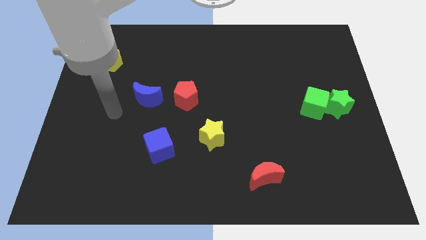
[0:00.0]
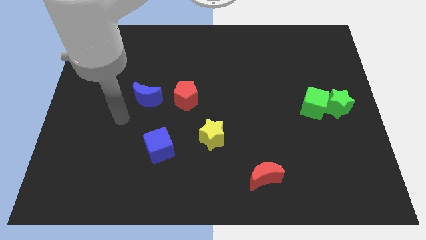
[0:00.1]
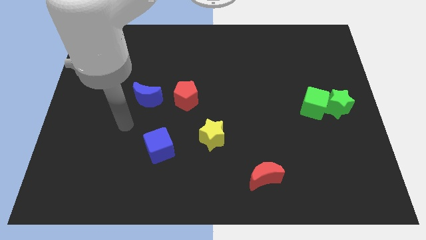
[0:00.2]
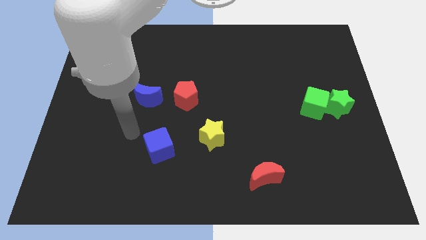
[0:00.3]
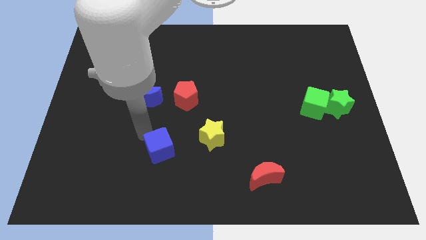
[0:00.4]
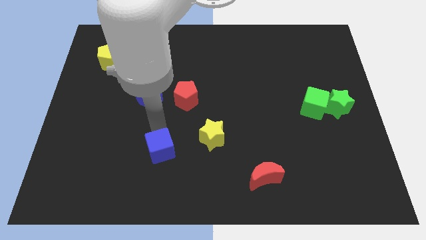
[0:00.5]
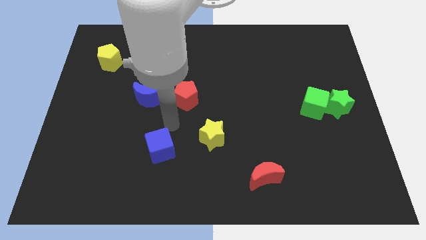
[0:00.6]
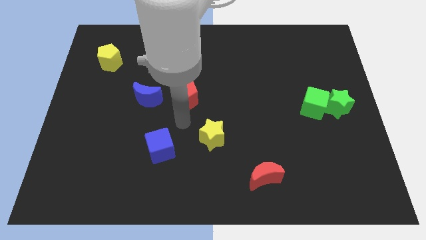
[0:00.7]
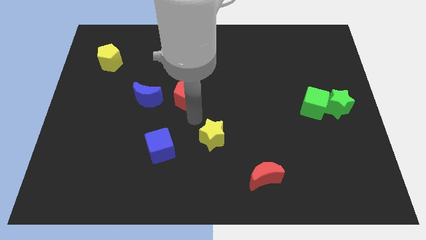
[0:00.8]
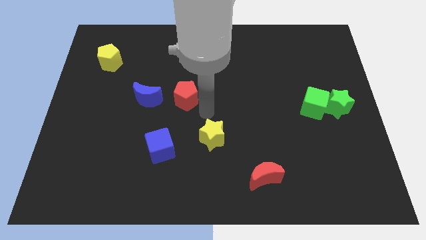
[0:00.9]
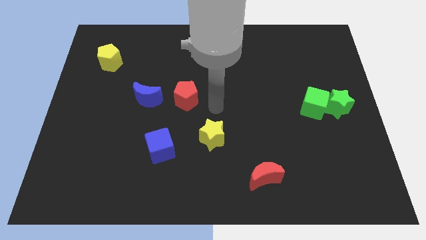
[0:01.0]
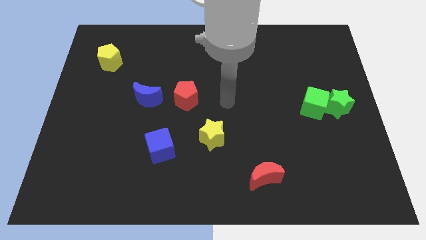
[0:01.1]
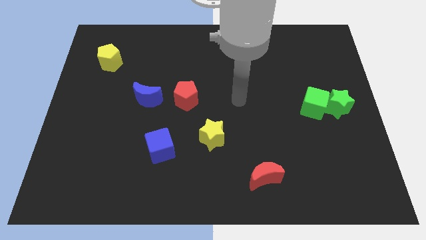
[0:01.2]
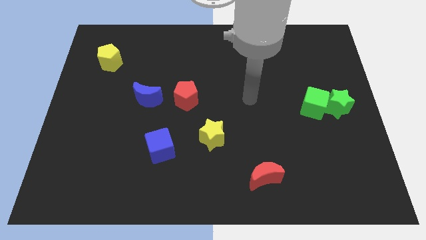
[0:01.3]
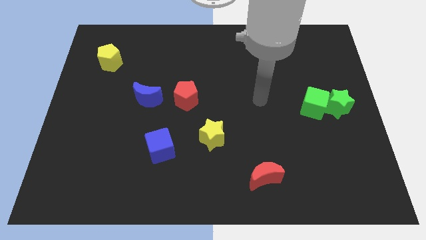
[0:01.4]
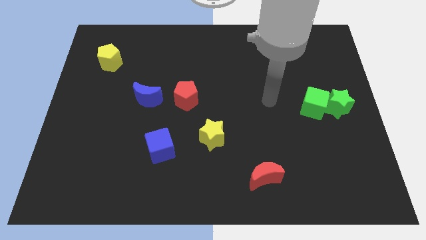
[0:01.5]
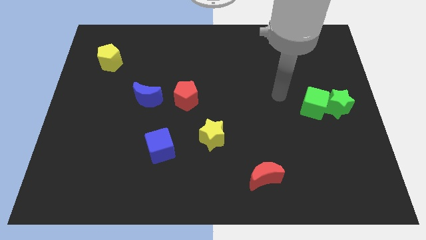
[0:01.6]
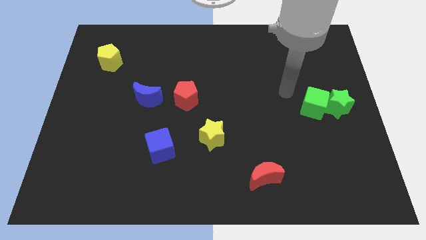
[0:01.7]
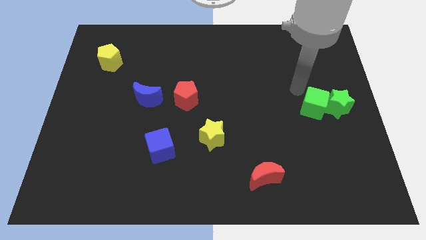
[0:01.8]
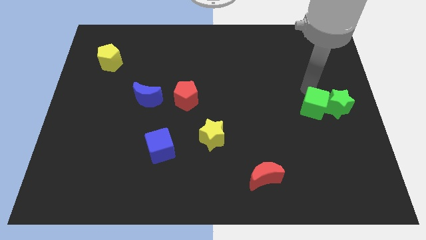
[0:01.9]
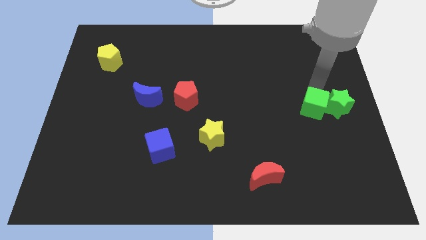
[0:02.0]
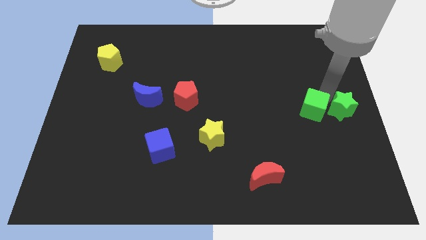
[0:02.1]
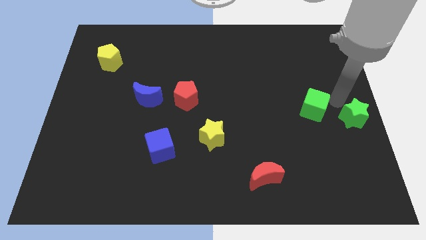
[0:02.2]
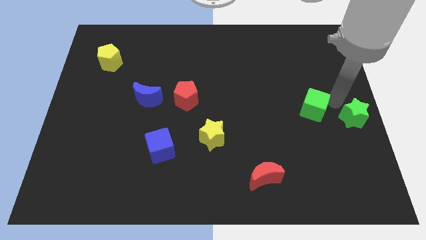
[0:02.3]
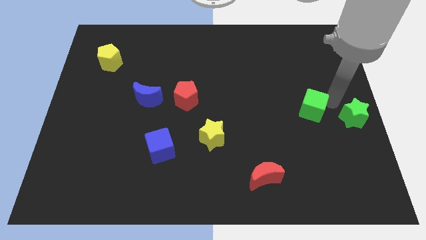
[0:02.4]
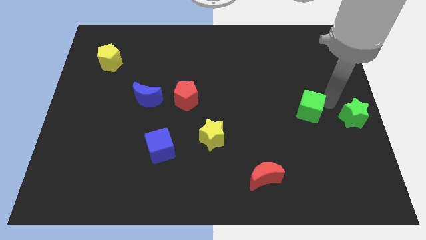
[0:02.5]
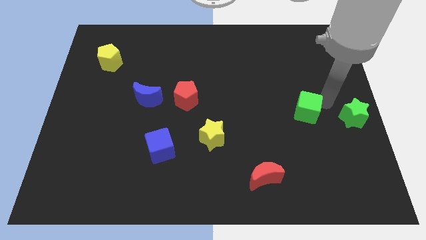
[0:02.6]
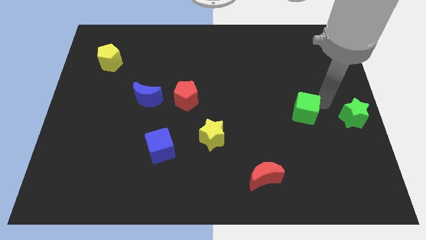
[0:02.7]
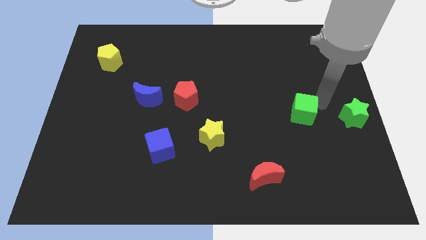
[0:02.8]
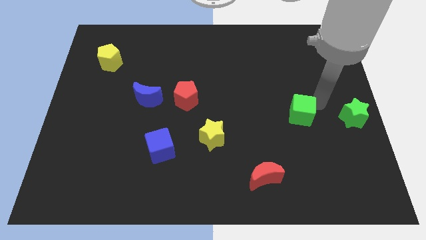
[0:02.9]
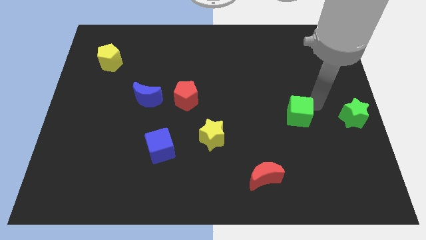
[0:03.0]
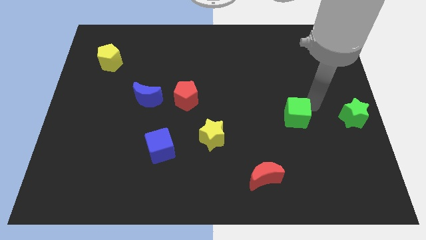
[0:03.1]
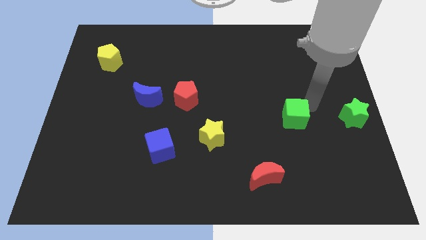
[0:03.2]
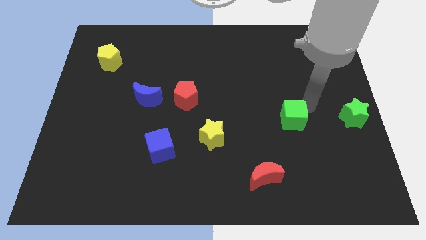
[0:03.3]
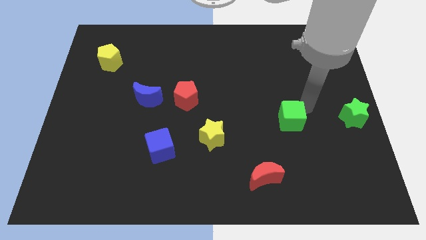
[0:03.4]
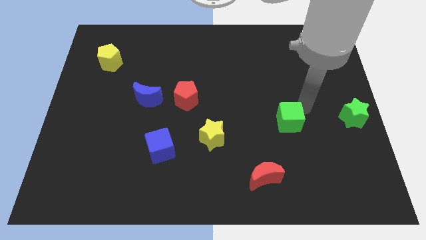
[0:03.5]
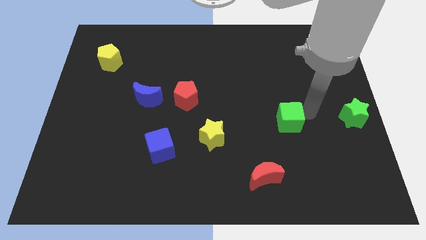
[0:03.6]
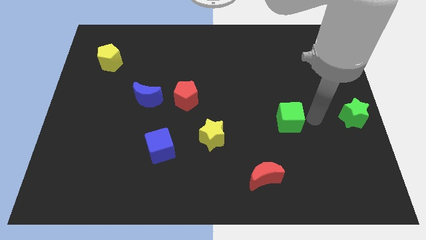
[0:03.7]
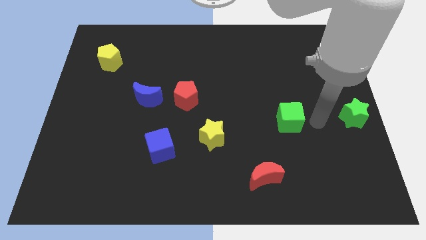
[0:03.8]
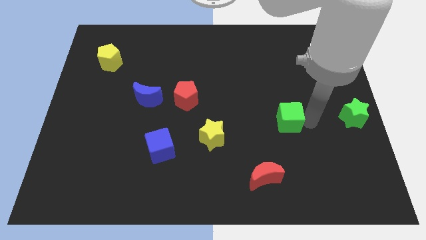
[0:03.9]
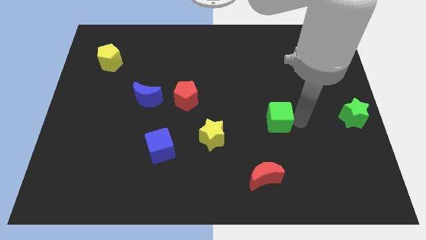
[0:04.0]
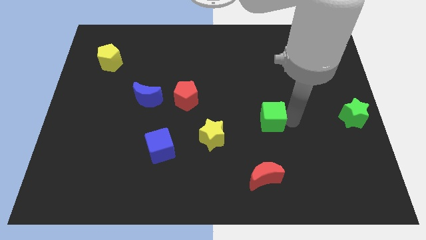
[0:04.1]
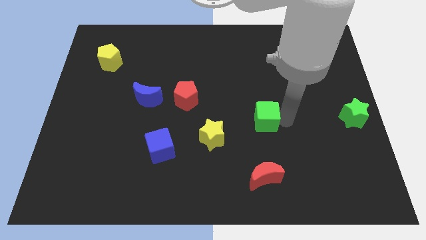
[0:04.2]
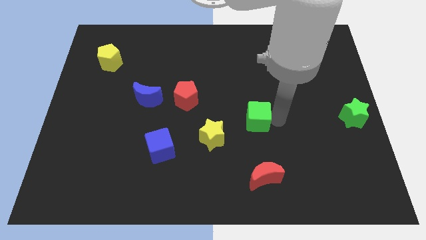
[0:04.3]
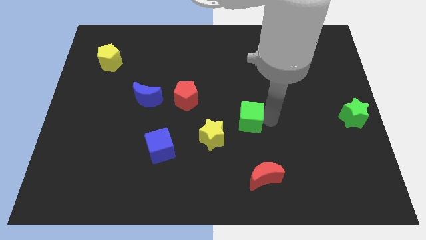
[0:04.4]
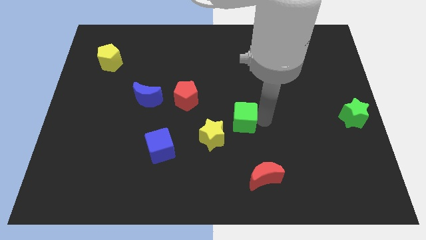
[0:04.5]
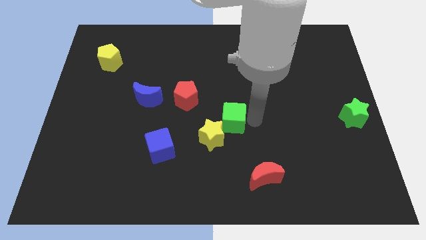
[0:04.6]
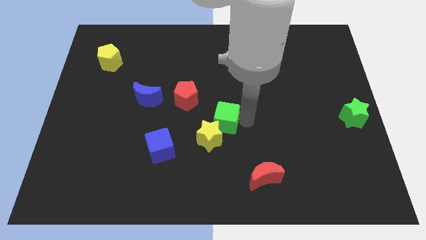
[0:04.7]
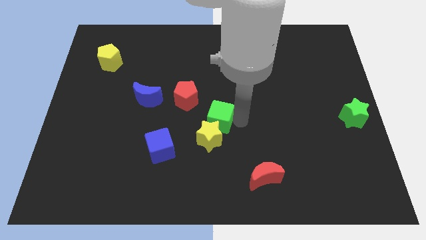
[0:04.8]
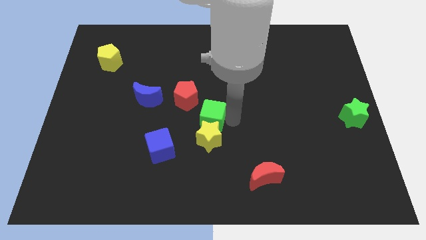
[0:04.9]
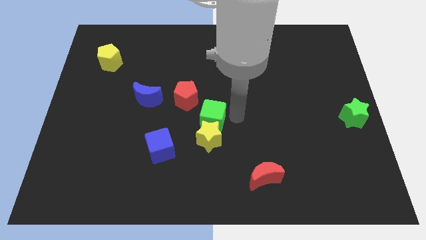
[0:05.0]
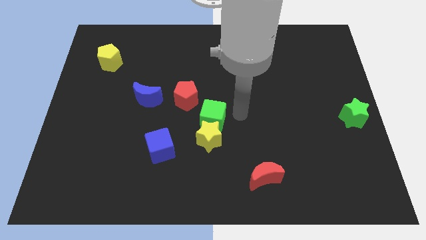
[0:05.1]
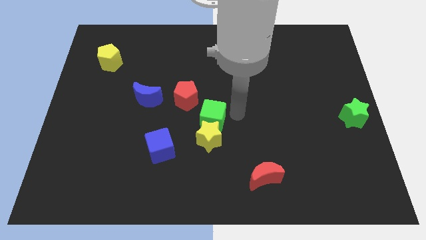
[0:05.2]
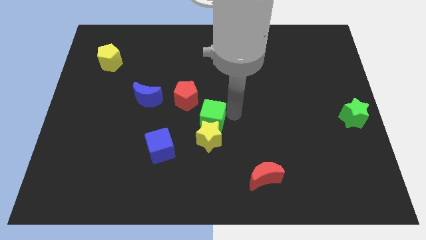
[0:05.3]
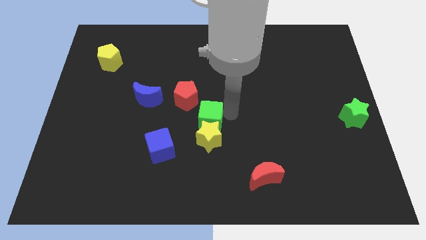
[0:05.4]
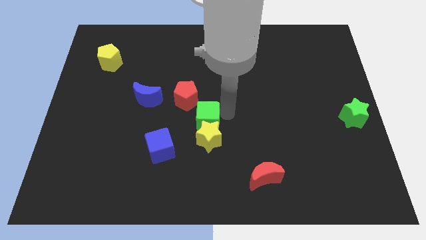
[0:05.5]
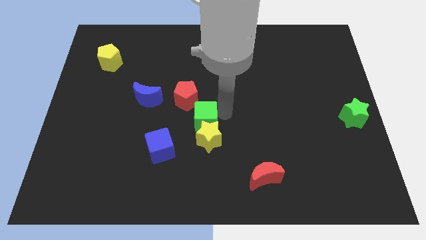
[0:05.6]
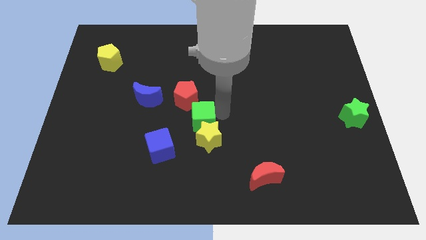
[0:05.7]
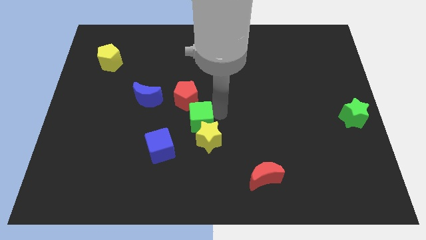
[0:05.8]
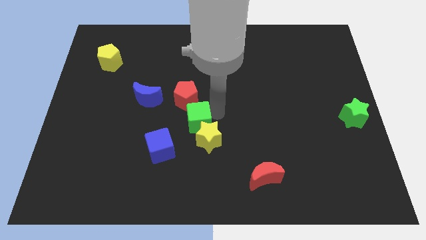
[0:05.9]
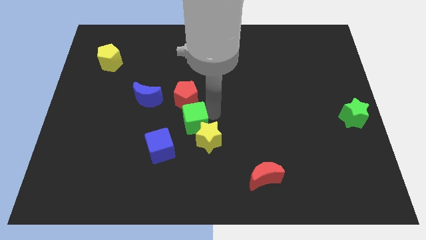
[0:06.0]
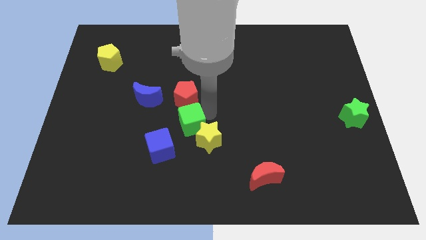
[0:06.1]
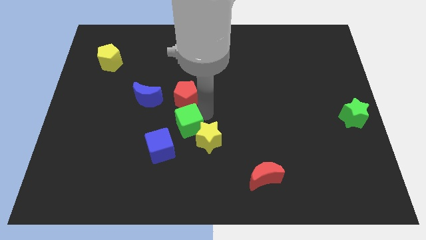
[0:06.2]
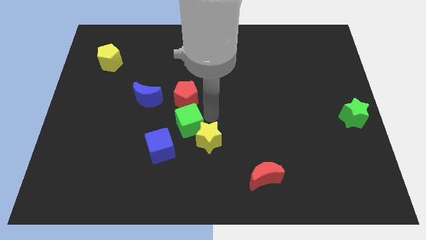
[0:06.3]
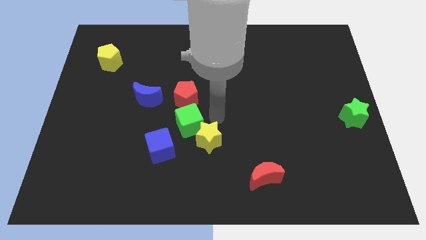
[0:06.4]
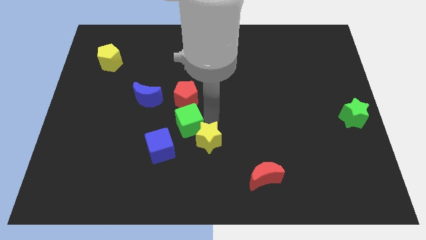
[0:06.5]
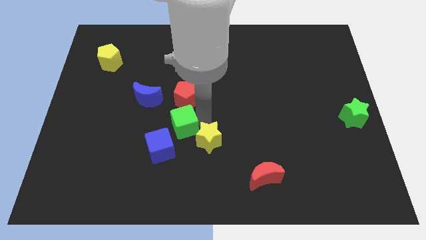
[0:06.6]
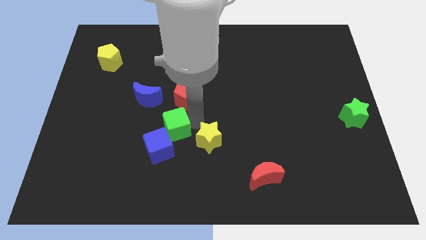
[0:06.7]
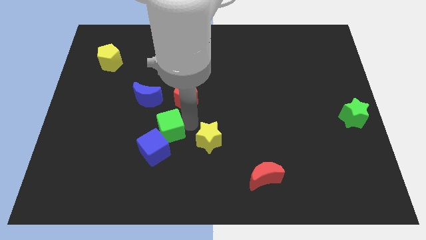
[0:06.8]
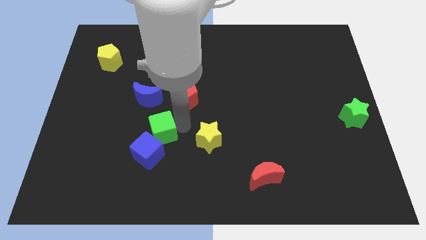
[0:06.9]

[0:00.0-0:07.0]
put the green cube below the blue moon
